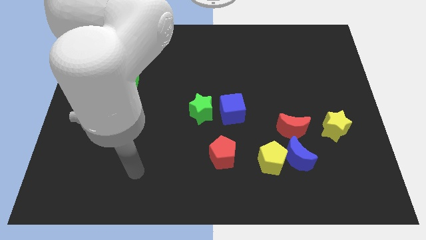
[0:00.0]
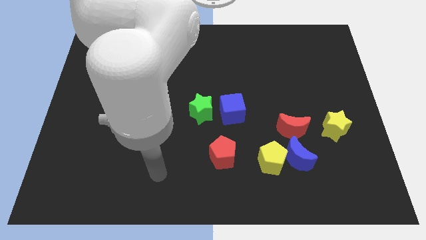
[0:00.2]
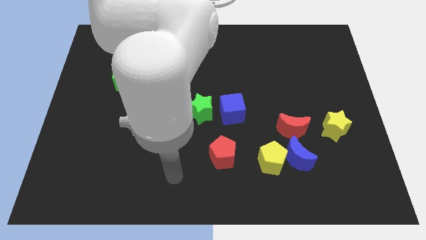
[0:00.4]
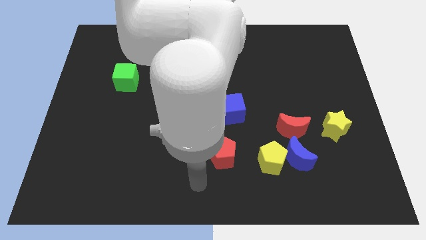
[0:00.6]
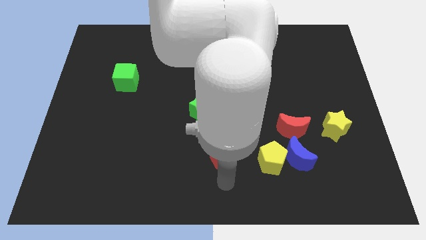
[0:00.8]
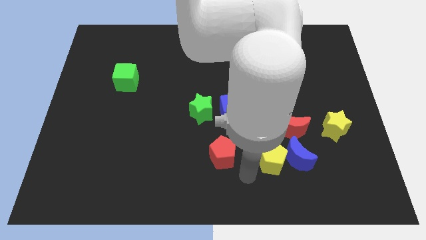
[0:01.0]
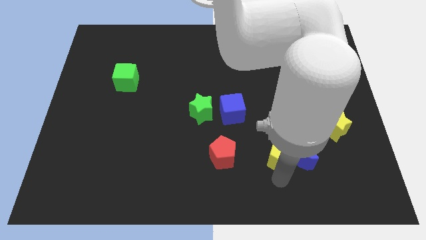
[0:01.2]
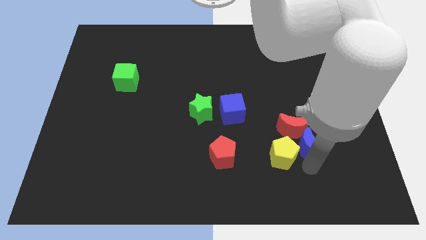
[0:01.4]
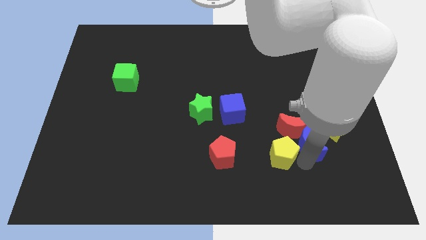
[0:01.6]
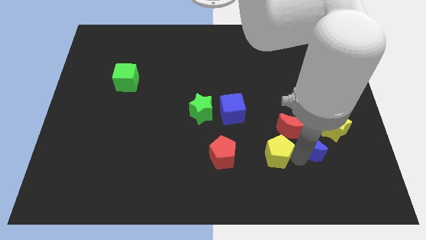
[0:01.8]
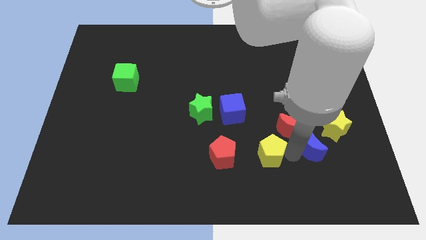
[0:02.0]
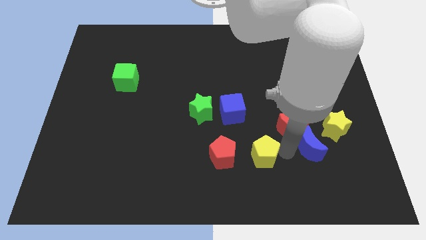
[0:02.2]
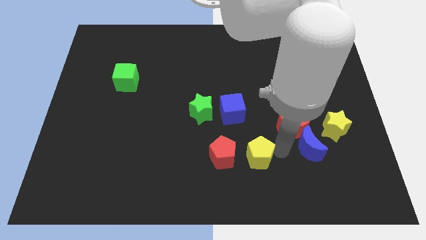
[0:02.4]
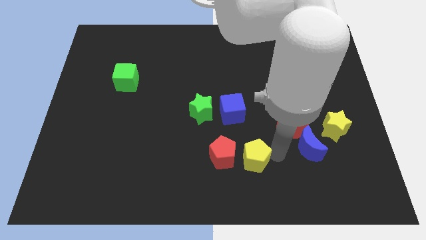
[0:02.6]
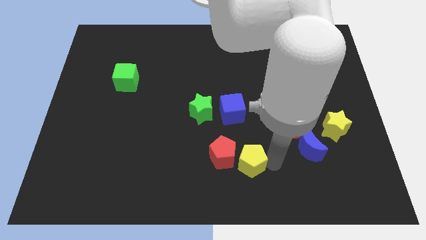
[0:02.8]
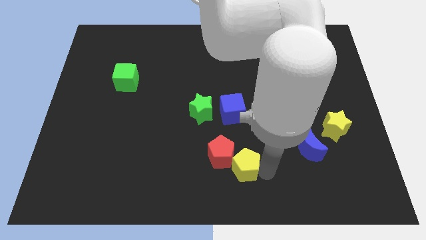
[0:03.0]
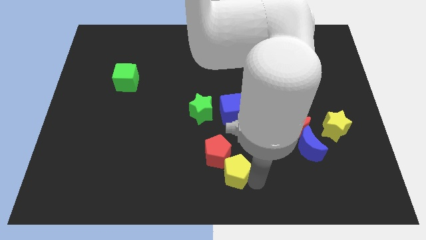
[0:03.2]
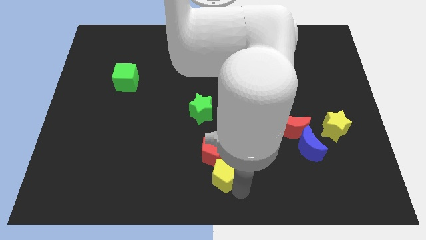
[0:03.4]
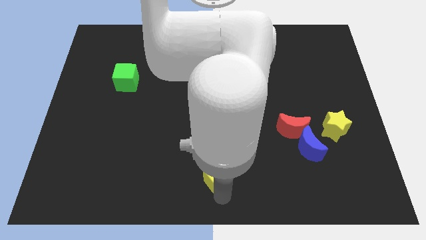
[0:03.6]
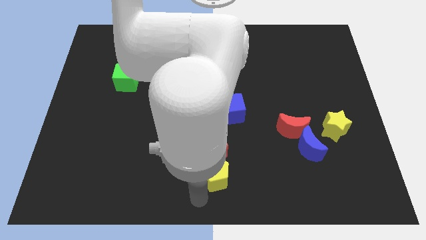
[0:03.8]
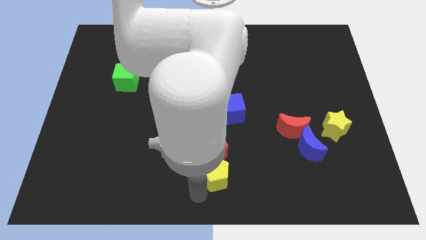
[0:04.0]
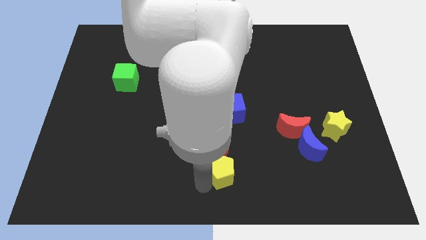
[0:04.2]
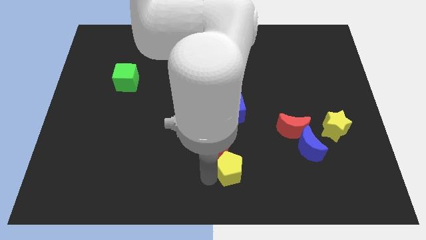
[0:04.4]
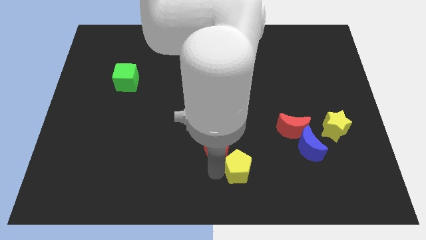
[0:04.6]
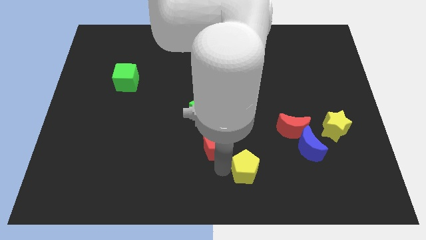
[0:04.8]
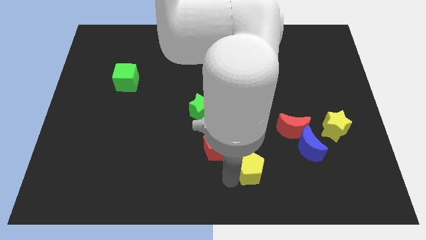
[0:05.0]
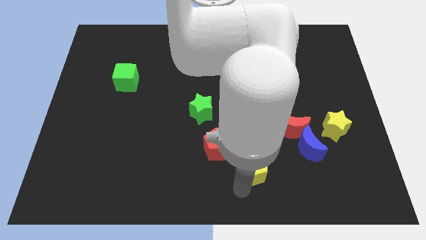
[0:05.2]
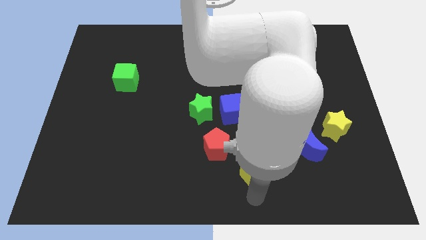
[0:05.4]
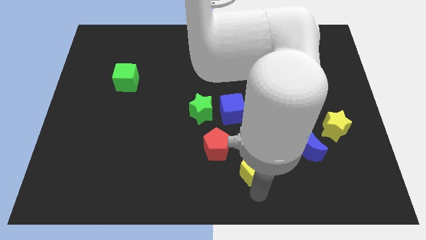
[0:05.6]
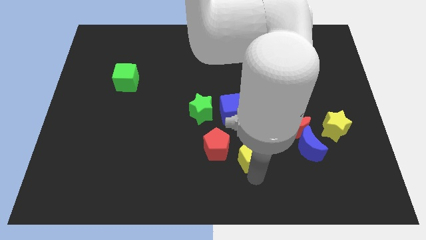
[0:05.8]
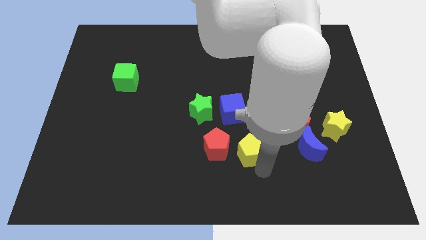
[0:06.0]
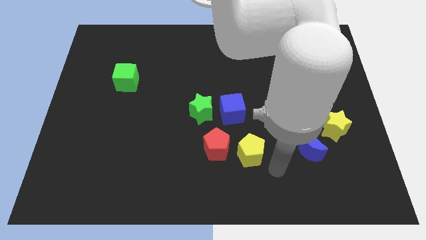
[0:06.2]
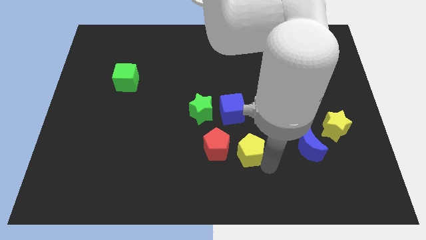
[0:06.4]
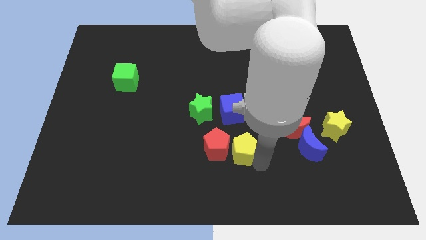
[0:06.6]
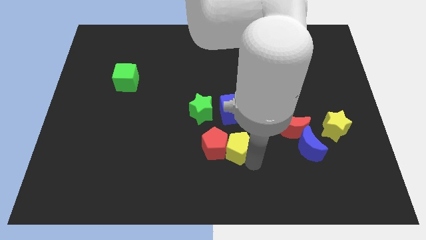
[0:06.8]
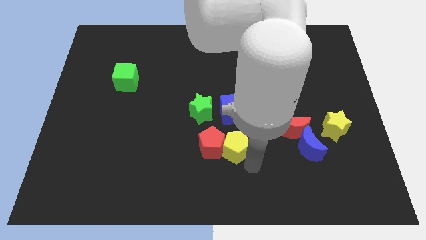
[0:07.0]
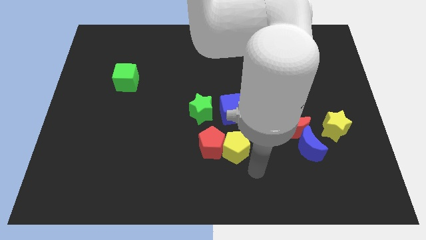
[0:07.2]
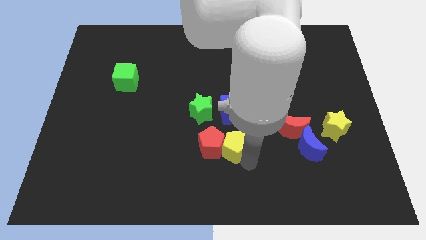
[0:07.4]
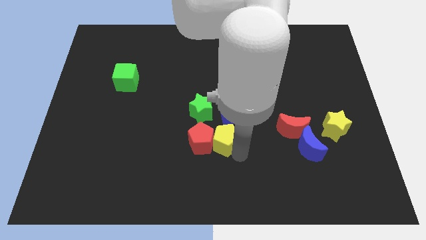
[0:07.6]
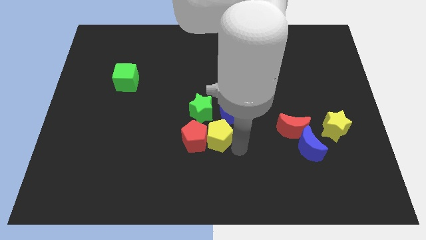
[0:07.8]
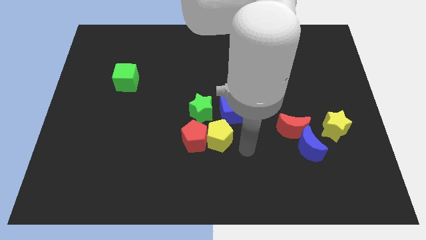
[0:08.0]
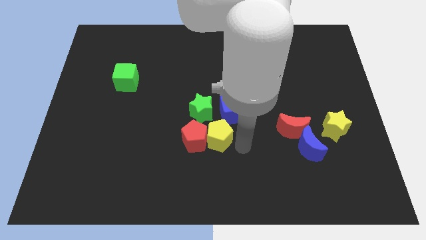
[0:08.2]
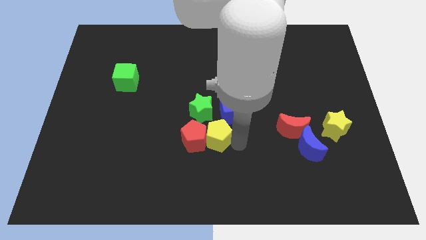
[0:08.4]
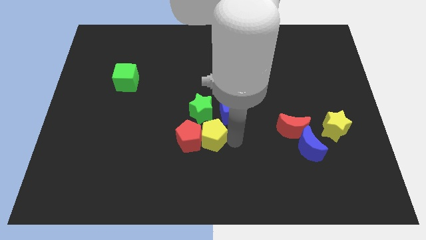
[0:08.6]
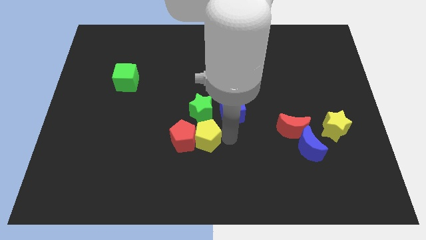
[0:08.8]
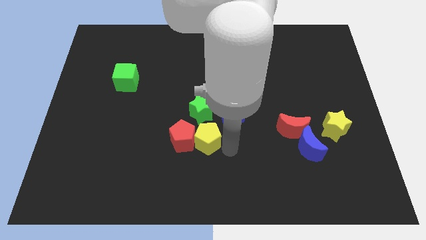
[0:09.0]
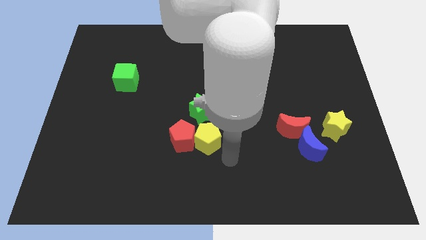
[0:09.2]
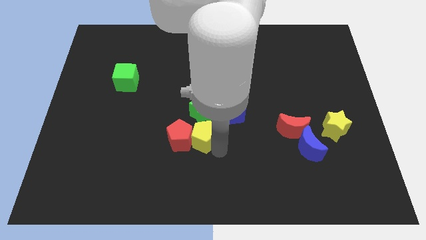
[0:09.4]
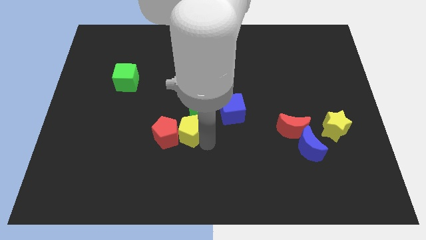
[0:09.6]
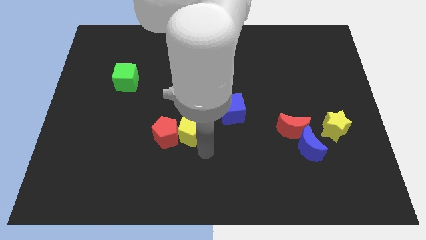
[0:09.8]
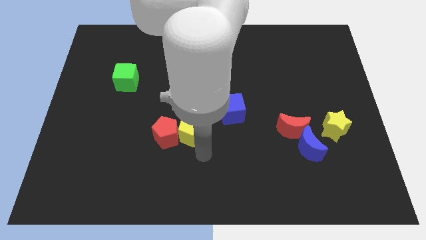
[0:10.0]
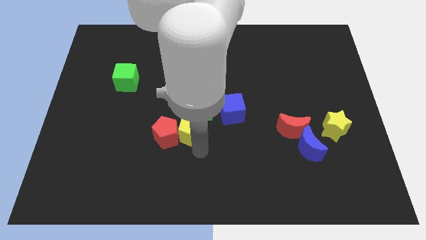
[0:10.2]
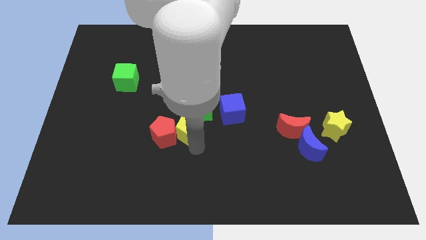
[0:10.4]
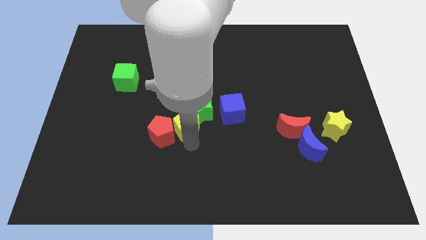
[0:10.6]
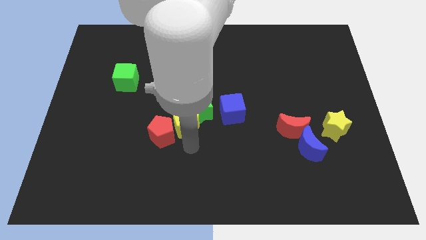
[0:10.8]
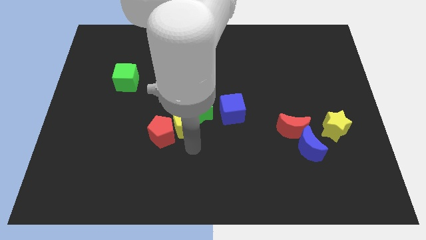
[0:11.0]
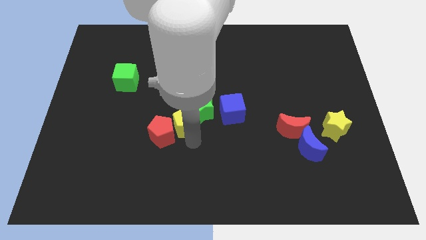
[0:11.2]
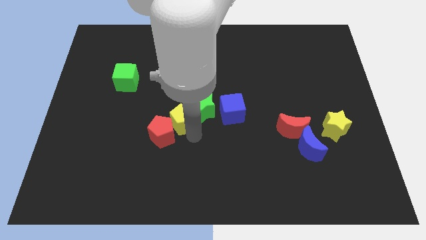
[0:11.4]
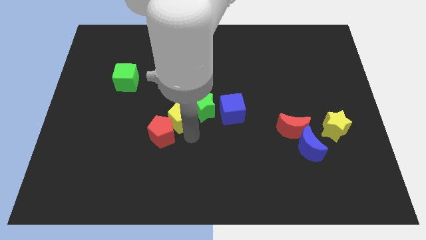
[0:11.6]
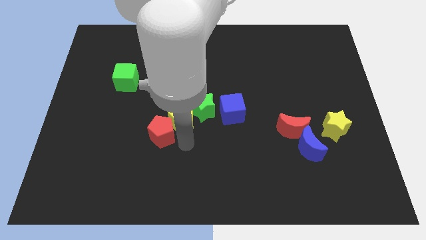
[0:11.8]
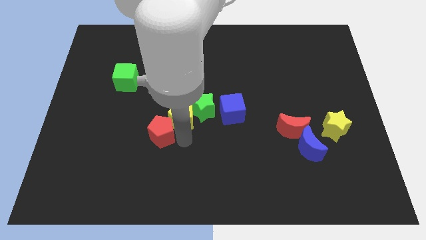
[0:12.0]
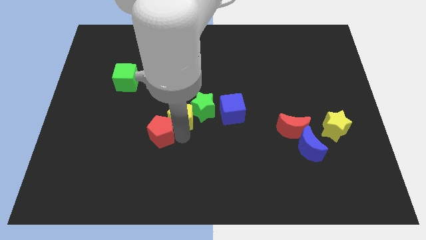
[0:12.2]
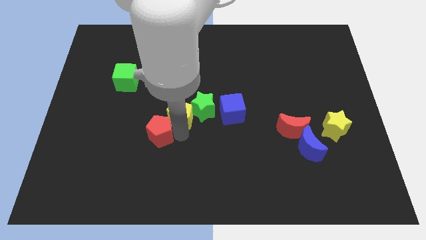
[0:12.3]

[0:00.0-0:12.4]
slide the yellow pentagon diagonally up and to the left

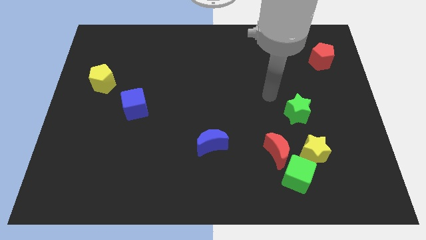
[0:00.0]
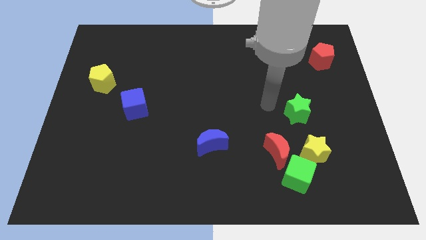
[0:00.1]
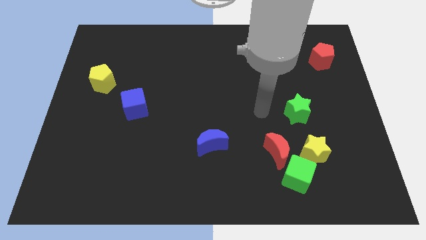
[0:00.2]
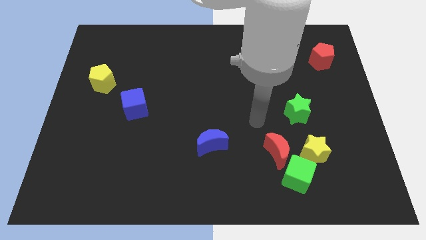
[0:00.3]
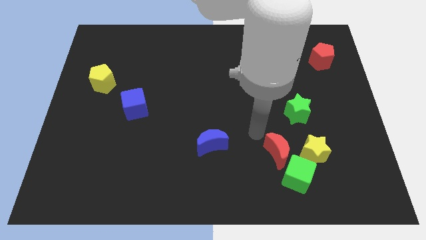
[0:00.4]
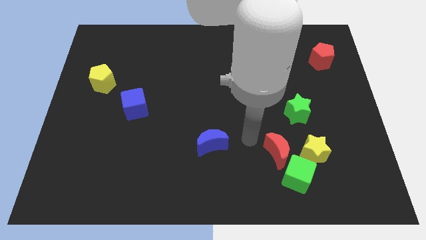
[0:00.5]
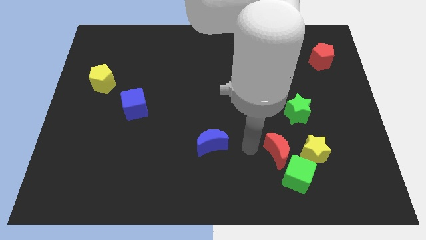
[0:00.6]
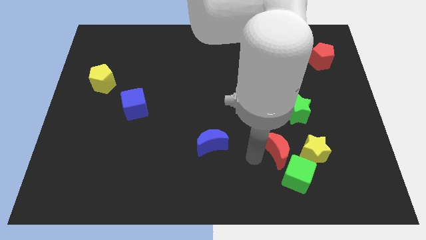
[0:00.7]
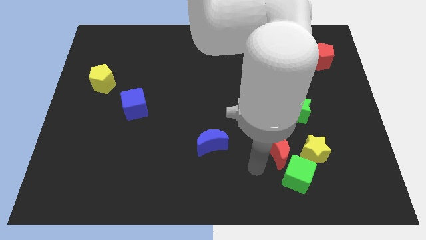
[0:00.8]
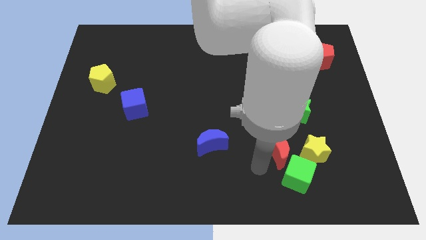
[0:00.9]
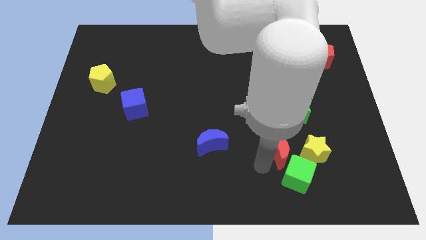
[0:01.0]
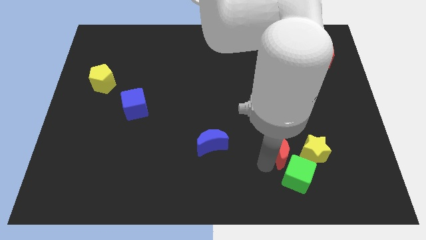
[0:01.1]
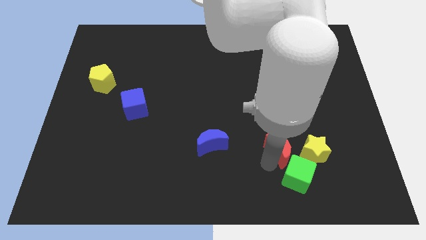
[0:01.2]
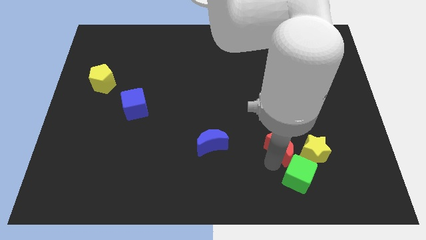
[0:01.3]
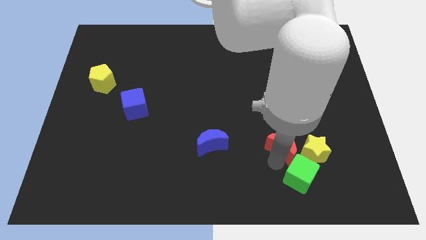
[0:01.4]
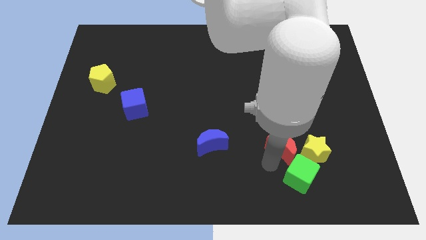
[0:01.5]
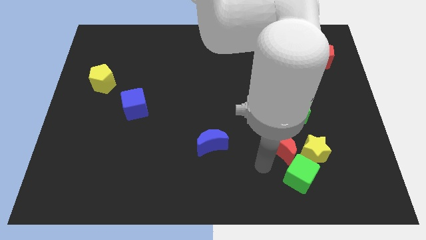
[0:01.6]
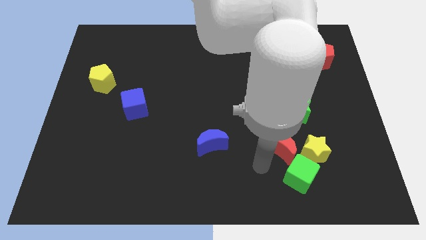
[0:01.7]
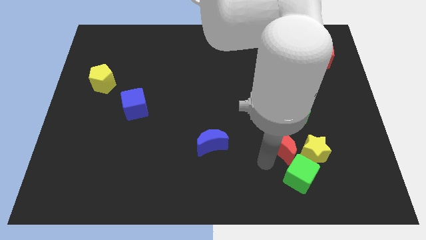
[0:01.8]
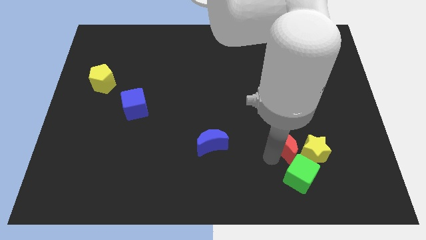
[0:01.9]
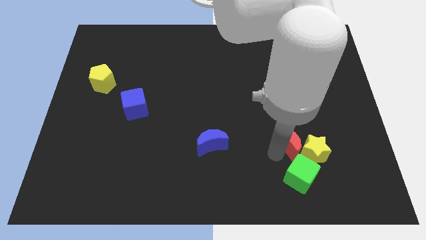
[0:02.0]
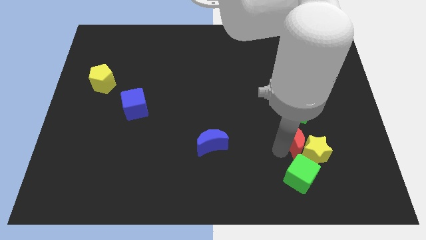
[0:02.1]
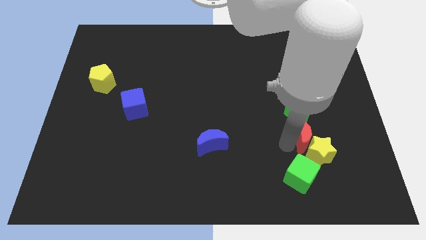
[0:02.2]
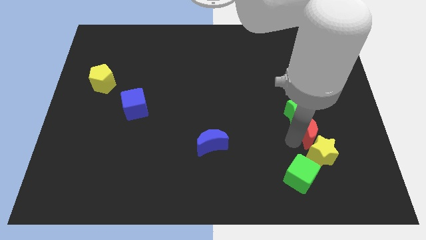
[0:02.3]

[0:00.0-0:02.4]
slightly move the red moon upwards and then right
